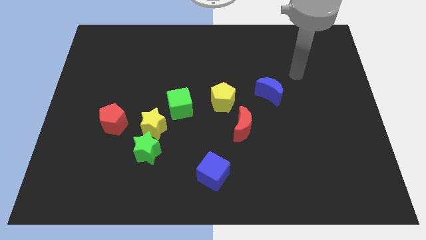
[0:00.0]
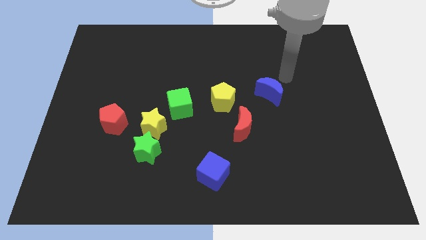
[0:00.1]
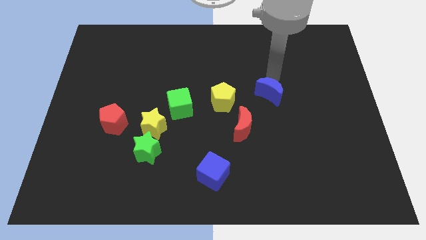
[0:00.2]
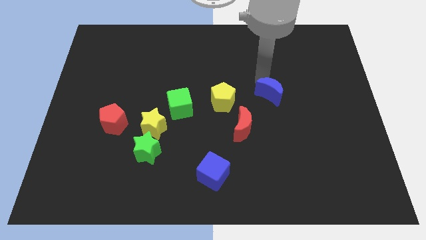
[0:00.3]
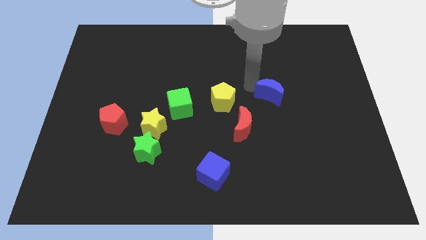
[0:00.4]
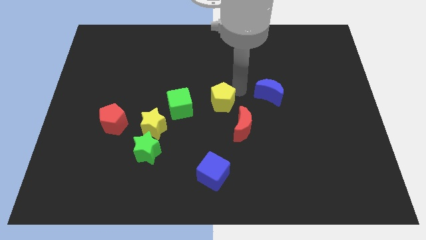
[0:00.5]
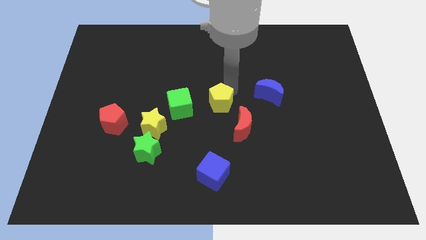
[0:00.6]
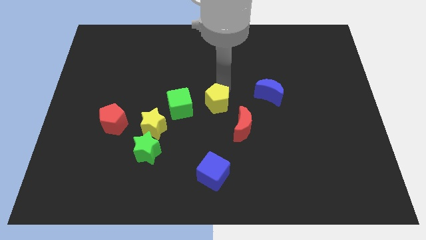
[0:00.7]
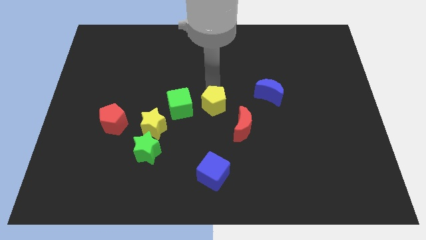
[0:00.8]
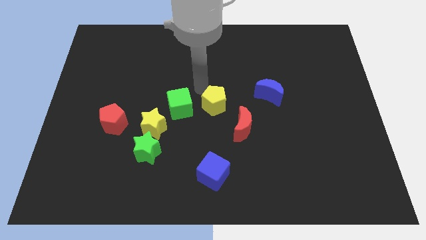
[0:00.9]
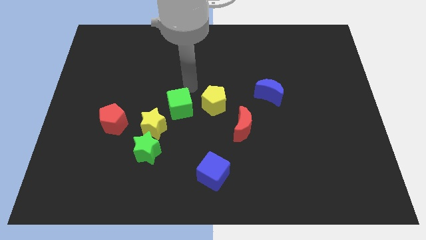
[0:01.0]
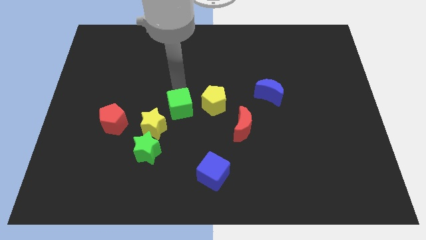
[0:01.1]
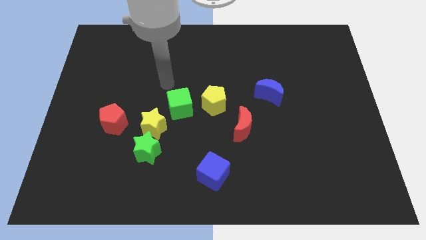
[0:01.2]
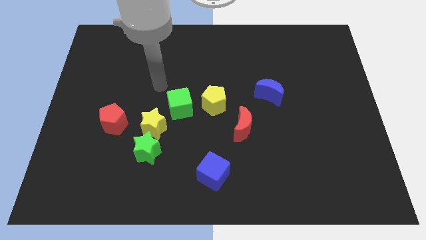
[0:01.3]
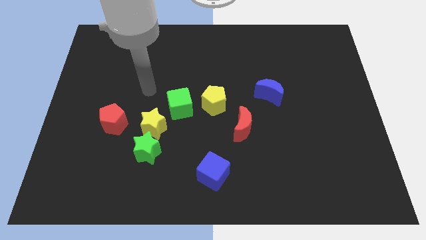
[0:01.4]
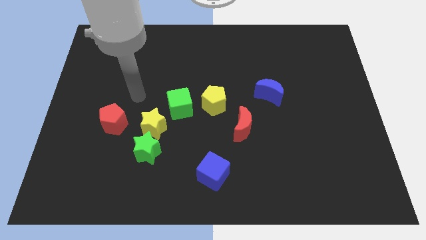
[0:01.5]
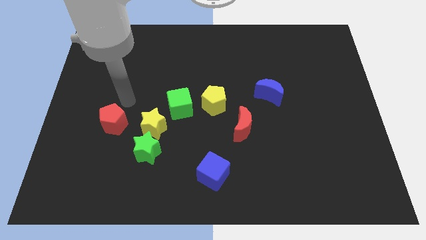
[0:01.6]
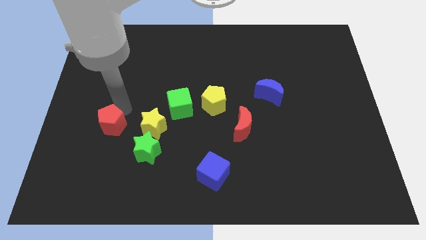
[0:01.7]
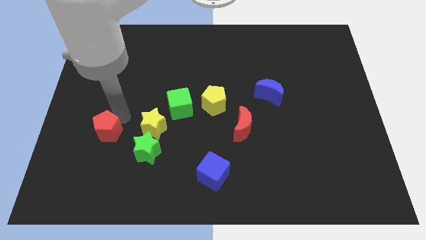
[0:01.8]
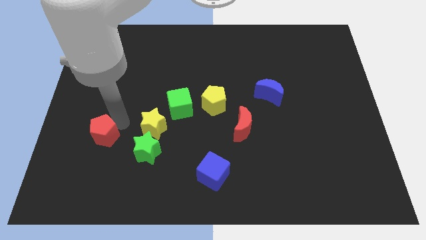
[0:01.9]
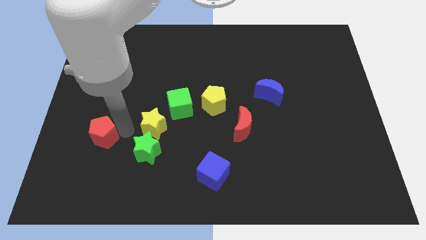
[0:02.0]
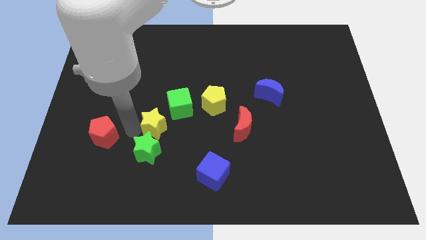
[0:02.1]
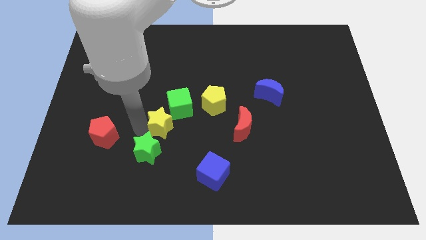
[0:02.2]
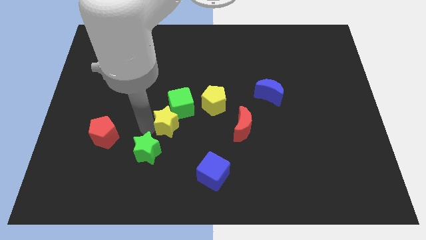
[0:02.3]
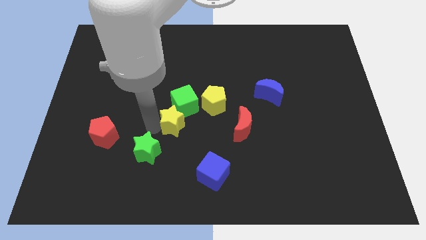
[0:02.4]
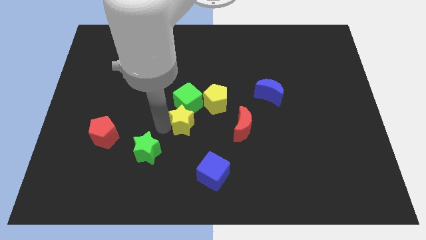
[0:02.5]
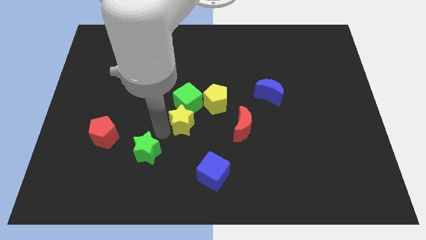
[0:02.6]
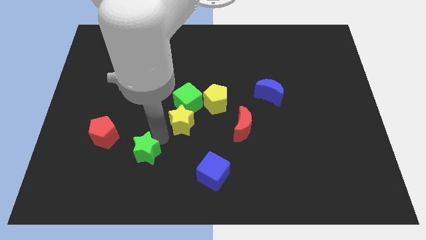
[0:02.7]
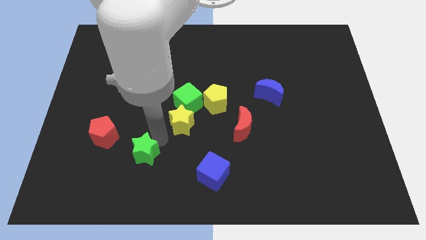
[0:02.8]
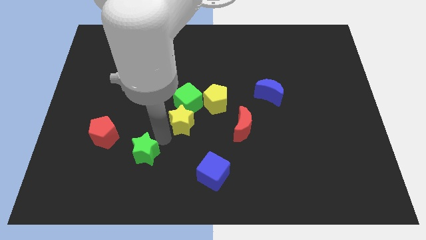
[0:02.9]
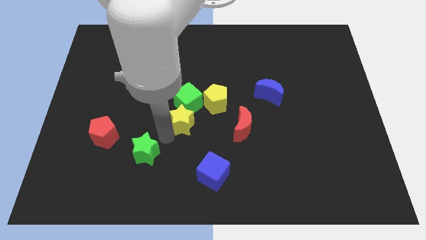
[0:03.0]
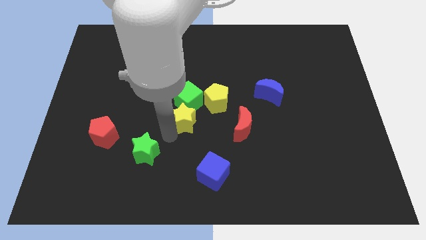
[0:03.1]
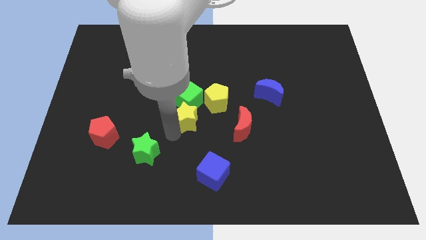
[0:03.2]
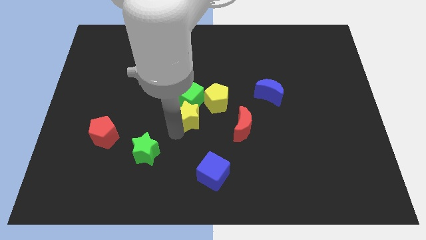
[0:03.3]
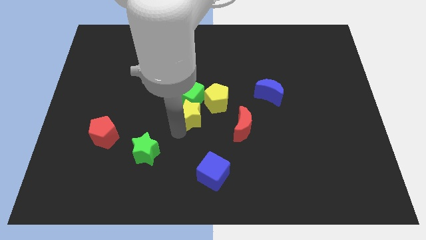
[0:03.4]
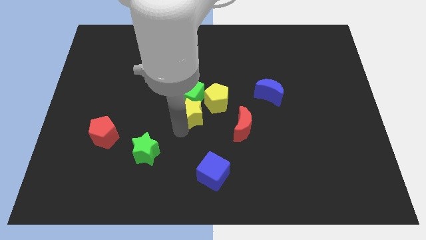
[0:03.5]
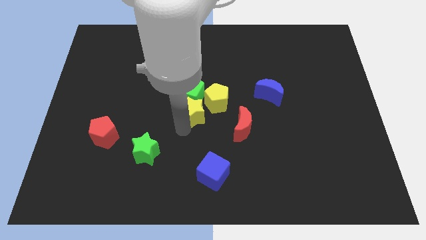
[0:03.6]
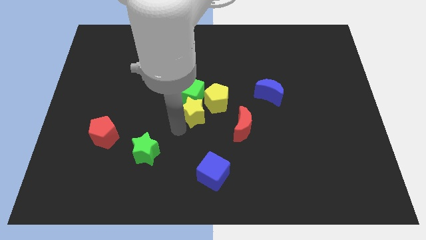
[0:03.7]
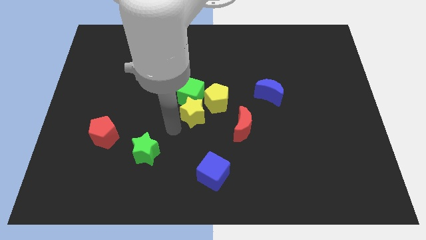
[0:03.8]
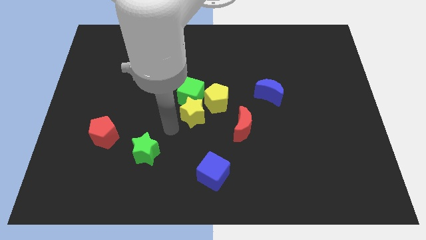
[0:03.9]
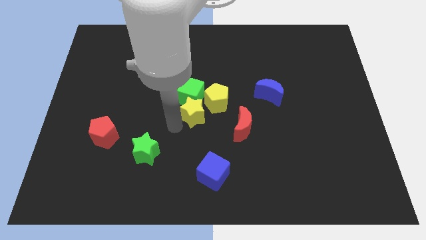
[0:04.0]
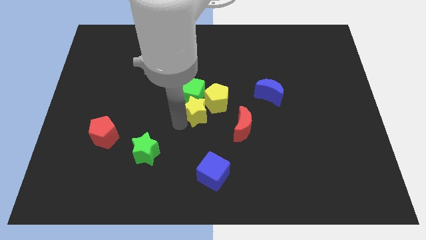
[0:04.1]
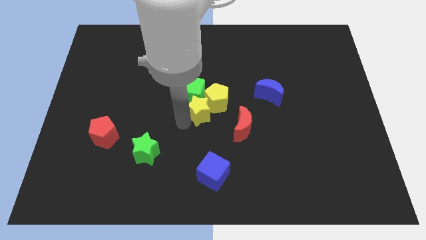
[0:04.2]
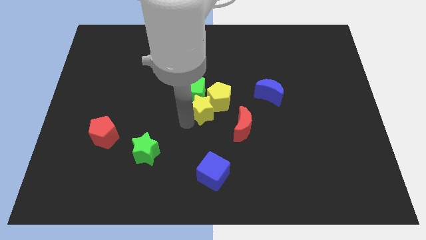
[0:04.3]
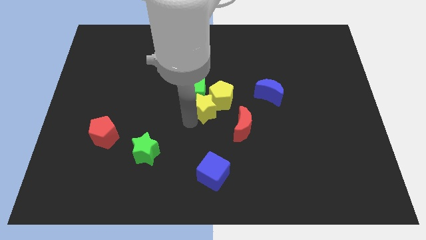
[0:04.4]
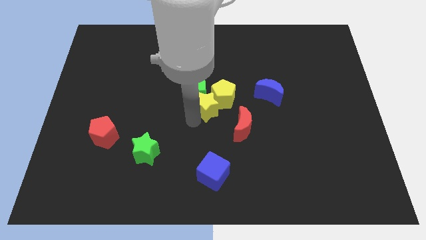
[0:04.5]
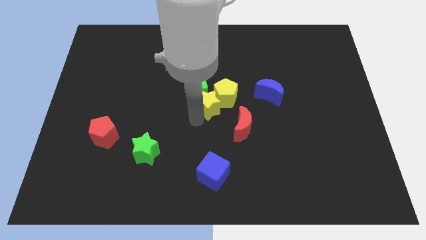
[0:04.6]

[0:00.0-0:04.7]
push the yellow star to the left of the blue moon

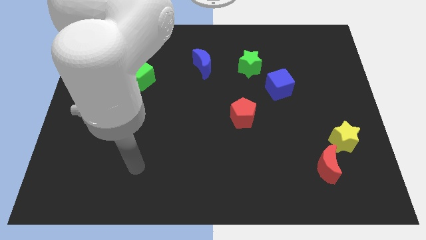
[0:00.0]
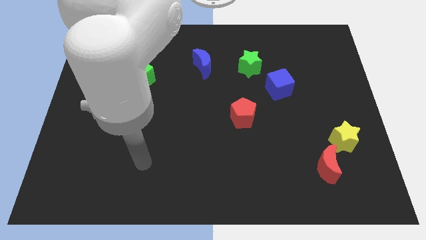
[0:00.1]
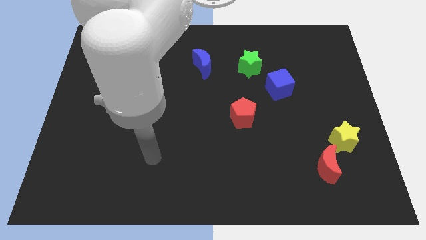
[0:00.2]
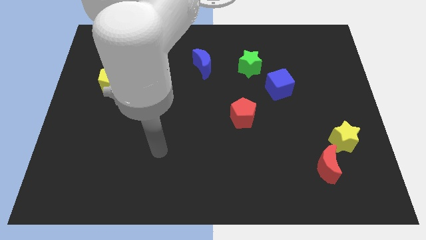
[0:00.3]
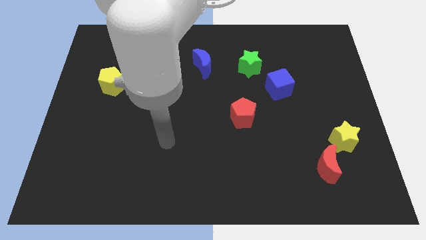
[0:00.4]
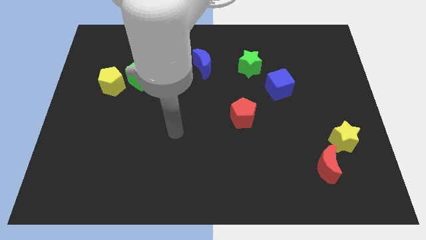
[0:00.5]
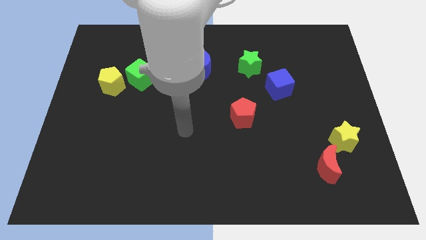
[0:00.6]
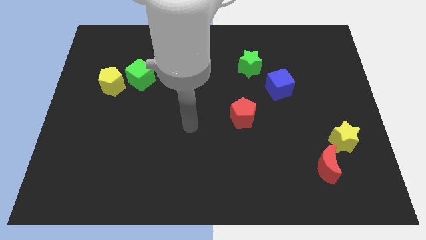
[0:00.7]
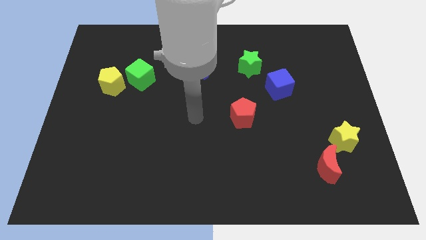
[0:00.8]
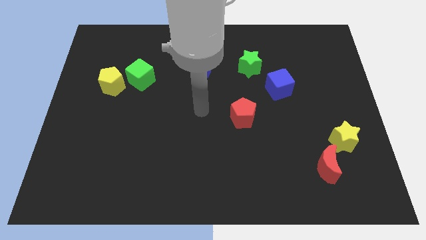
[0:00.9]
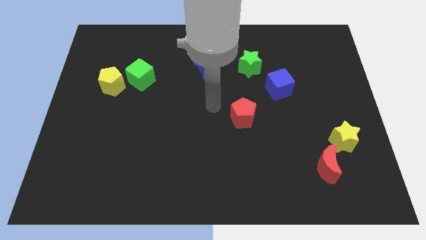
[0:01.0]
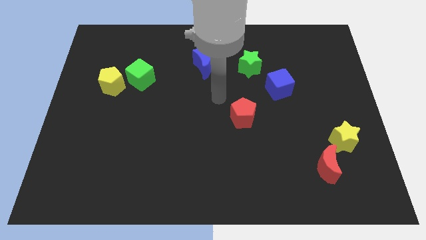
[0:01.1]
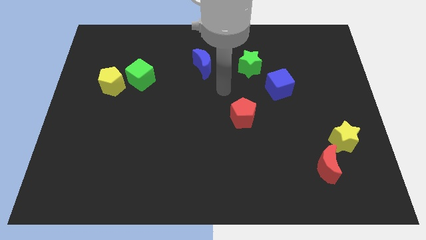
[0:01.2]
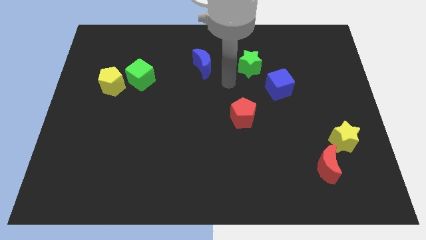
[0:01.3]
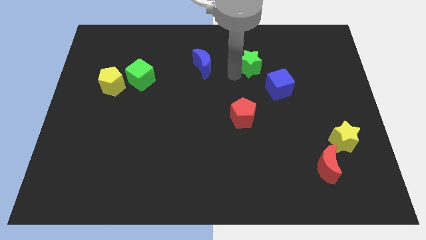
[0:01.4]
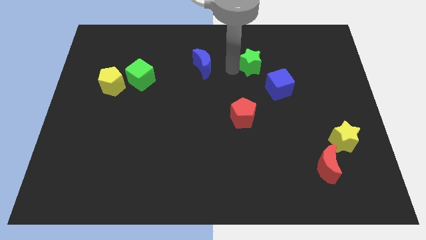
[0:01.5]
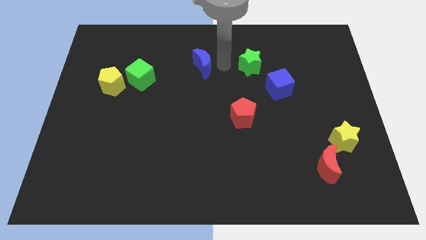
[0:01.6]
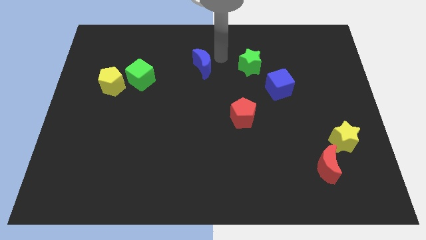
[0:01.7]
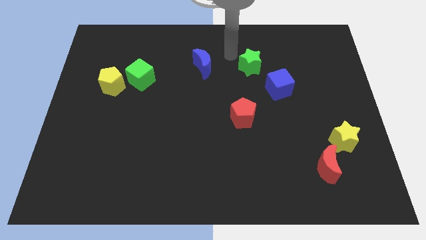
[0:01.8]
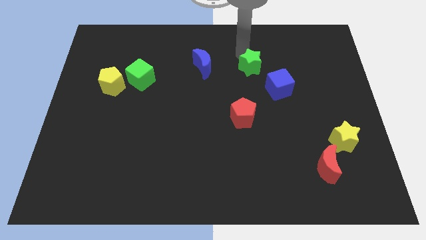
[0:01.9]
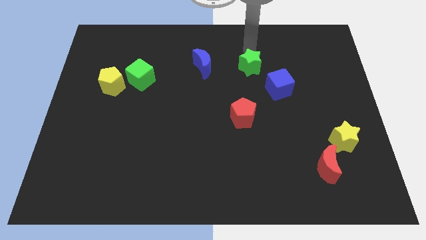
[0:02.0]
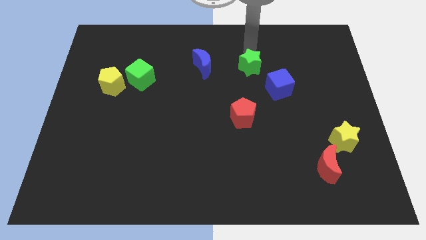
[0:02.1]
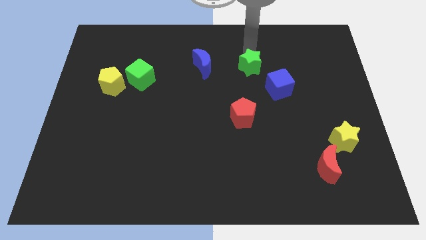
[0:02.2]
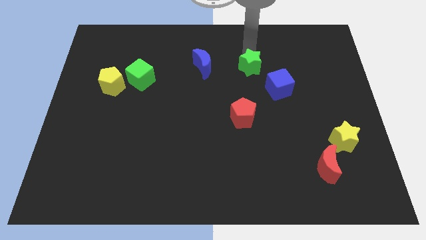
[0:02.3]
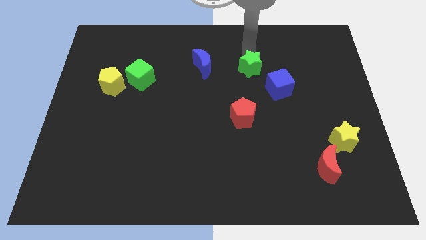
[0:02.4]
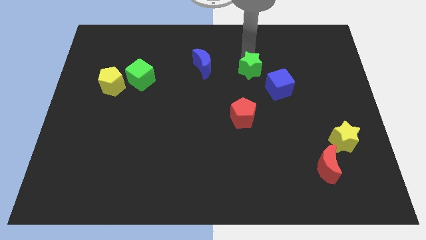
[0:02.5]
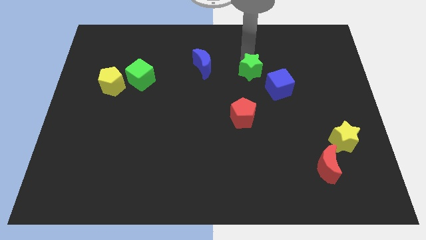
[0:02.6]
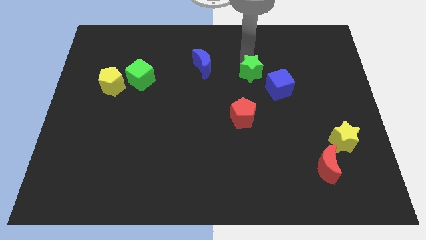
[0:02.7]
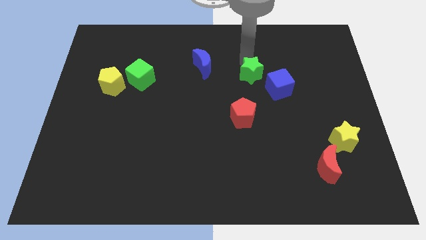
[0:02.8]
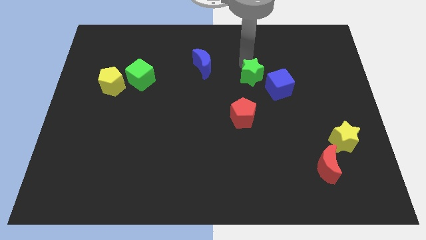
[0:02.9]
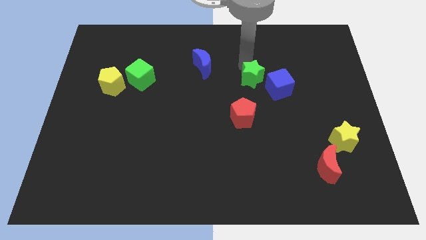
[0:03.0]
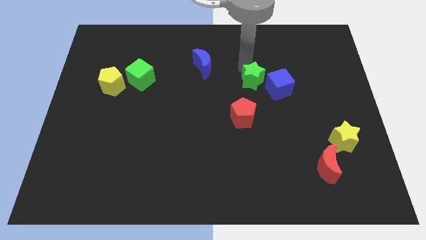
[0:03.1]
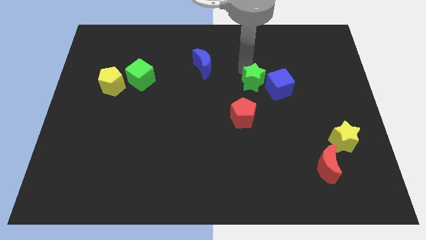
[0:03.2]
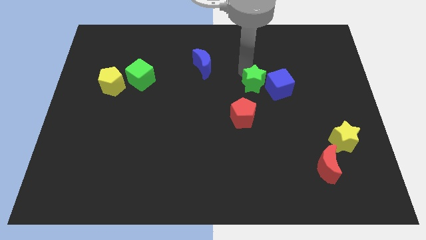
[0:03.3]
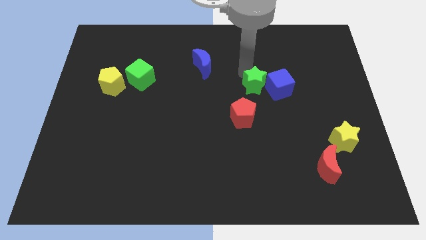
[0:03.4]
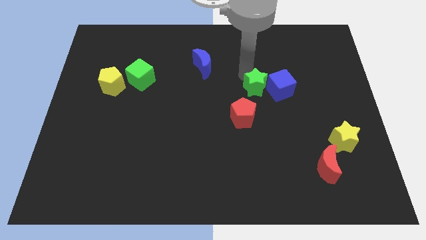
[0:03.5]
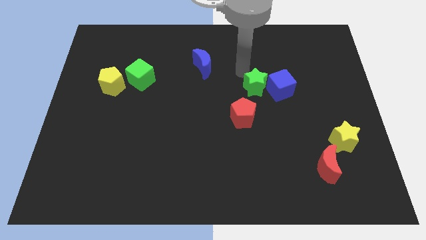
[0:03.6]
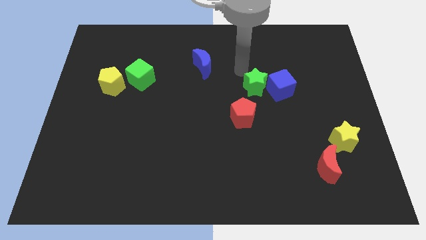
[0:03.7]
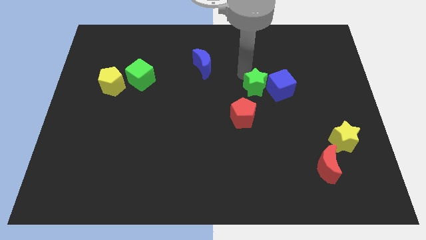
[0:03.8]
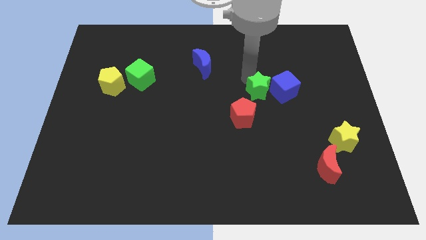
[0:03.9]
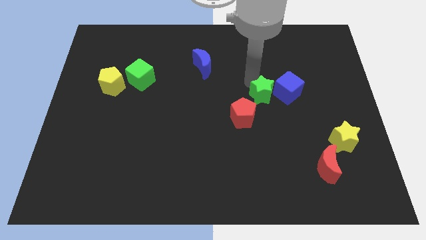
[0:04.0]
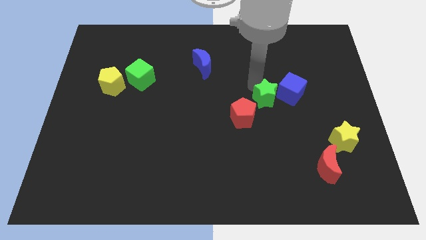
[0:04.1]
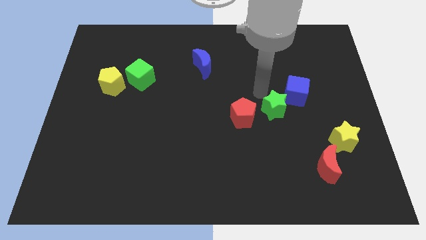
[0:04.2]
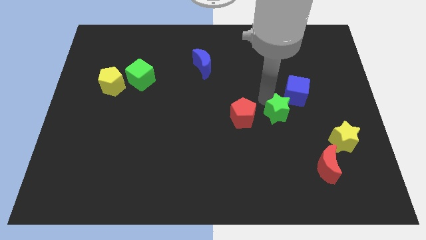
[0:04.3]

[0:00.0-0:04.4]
push the green star to the bottom of the blue cube
